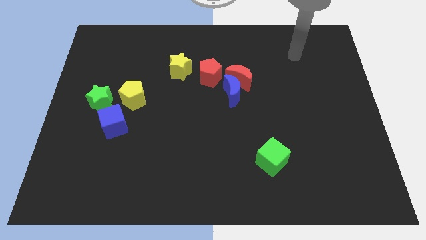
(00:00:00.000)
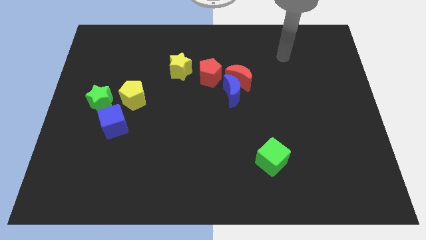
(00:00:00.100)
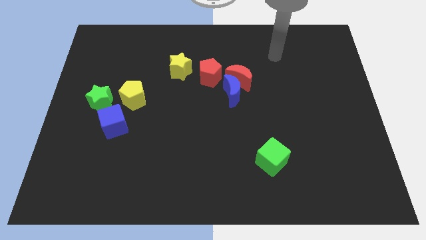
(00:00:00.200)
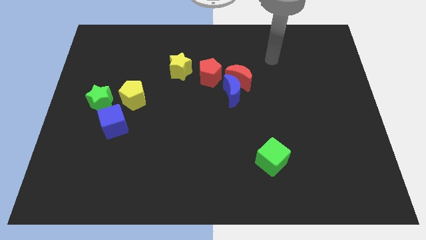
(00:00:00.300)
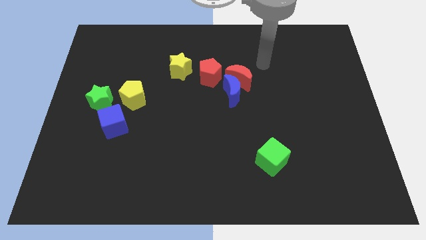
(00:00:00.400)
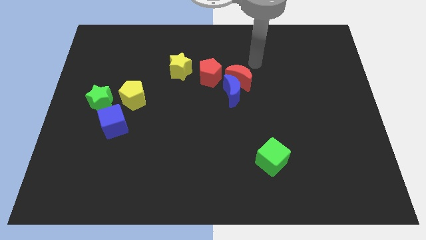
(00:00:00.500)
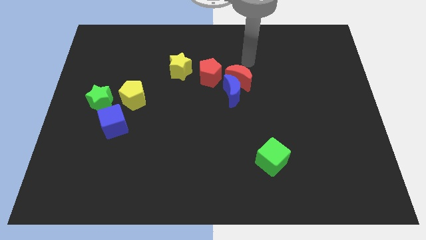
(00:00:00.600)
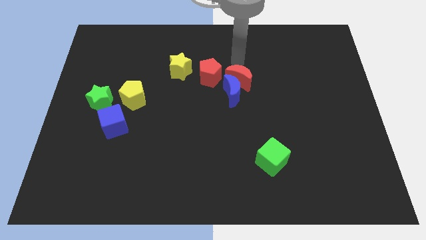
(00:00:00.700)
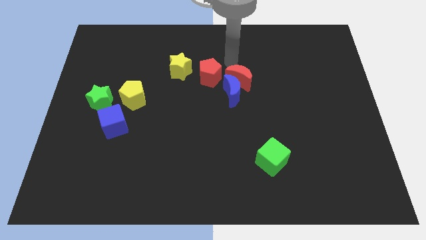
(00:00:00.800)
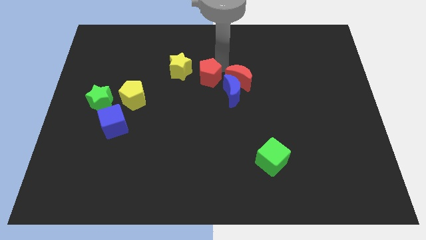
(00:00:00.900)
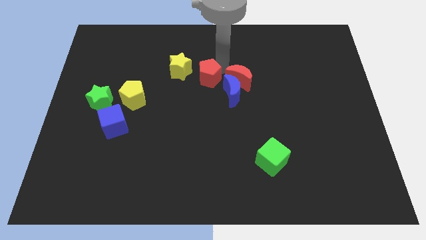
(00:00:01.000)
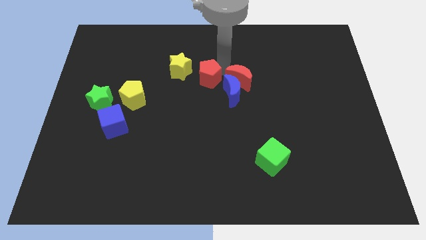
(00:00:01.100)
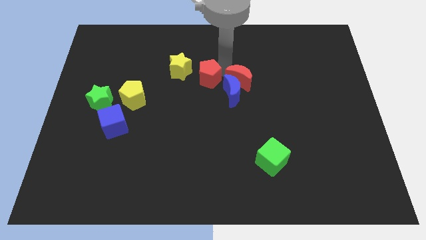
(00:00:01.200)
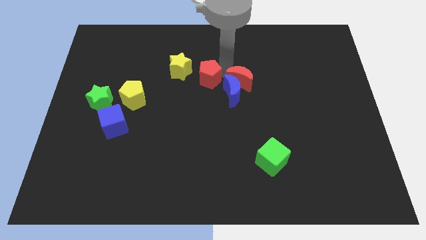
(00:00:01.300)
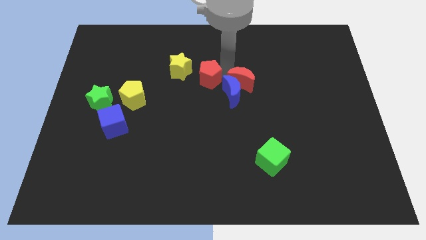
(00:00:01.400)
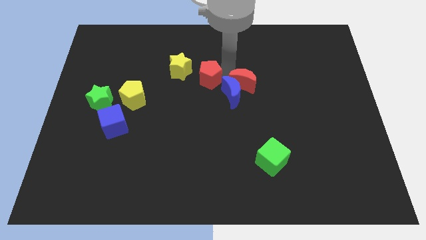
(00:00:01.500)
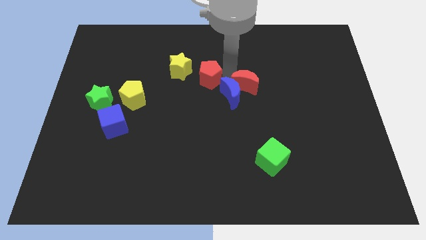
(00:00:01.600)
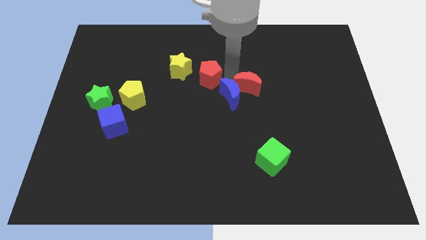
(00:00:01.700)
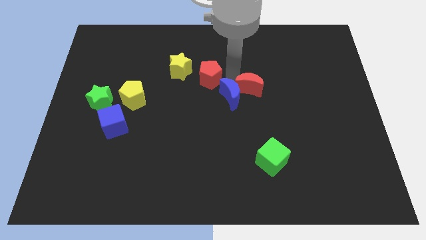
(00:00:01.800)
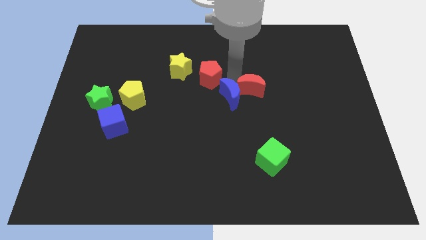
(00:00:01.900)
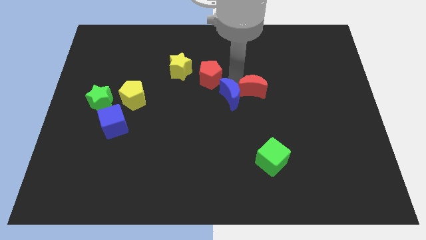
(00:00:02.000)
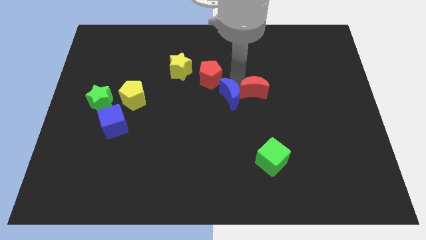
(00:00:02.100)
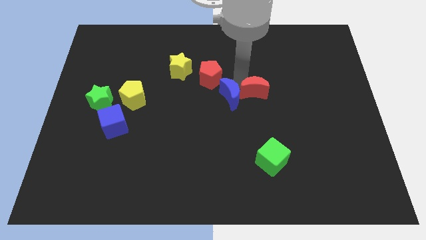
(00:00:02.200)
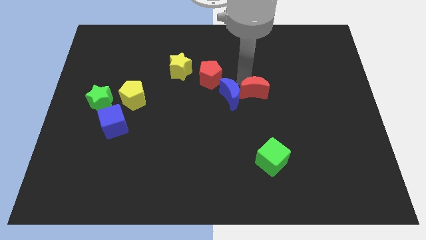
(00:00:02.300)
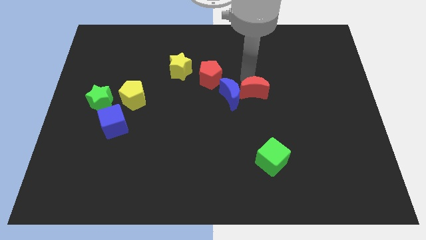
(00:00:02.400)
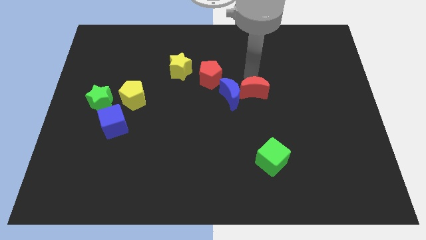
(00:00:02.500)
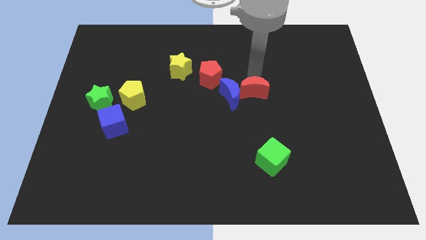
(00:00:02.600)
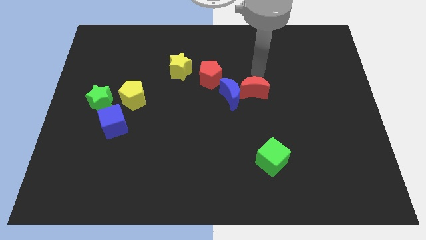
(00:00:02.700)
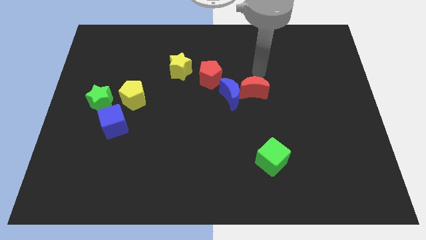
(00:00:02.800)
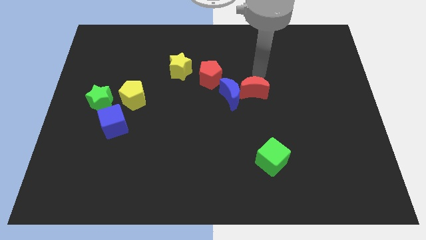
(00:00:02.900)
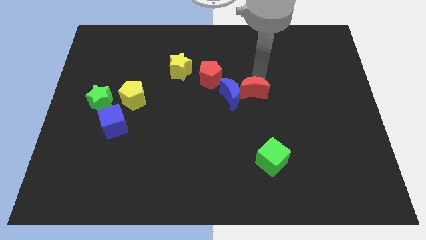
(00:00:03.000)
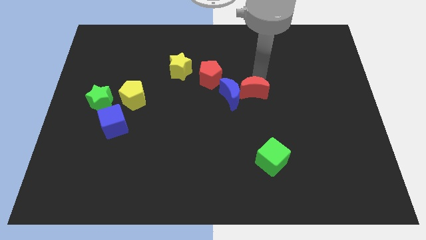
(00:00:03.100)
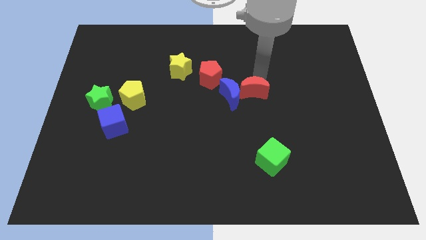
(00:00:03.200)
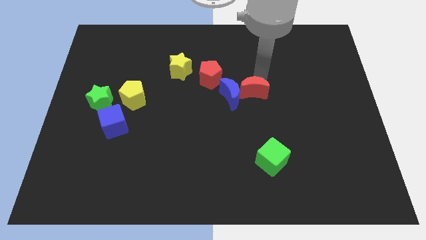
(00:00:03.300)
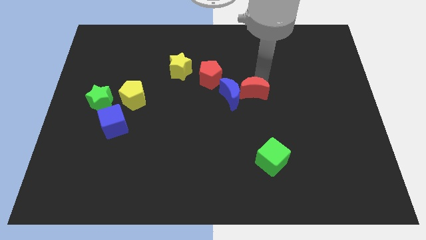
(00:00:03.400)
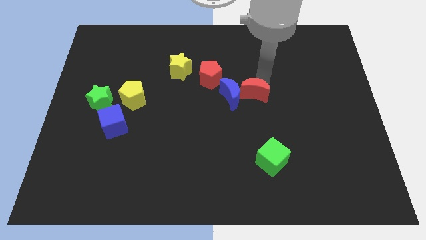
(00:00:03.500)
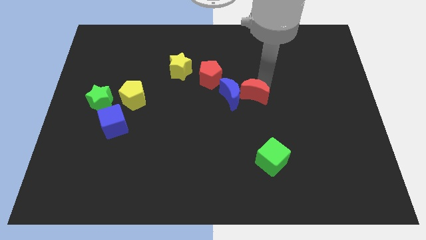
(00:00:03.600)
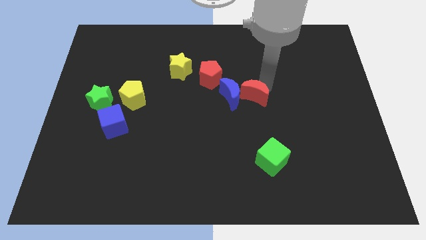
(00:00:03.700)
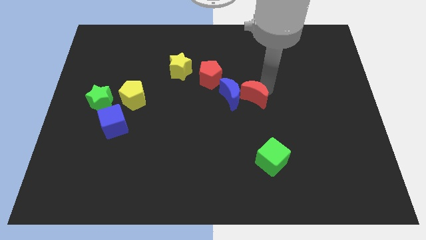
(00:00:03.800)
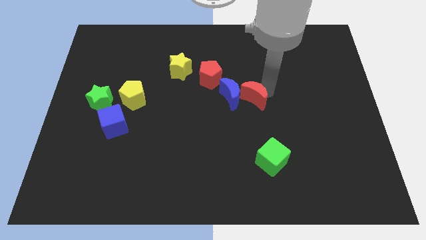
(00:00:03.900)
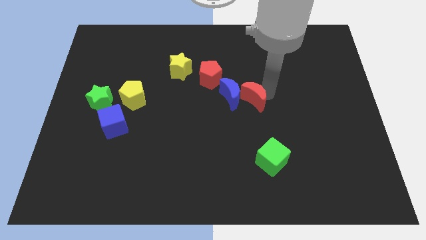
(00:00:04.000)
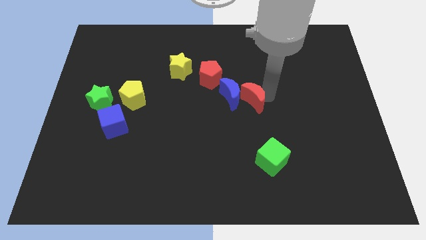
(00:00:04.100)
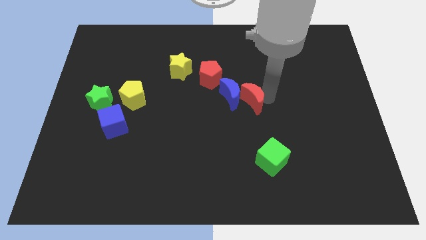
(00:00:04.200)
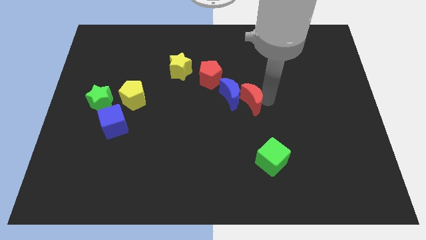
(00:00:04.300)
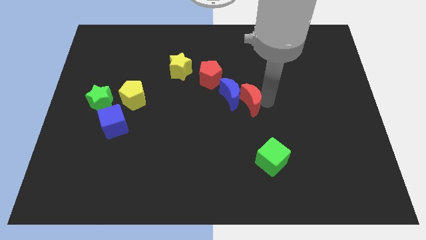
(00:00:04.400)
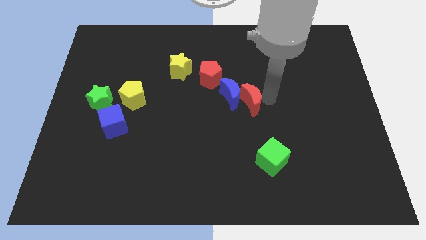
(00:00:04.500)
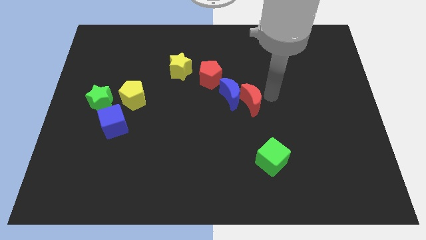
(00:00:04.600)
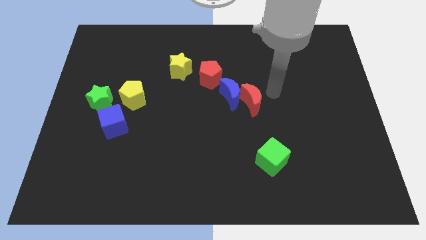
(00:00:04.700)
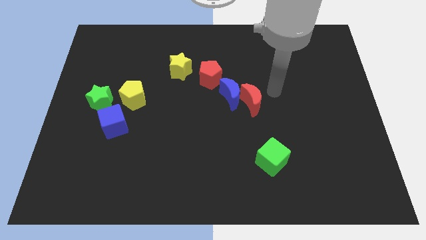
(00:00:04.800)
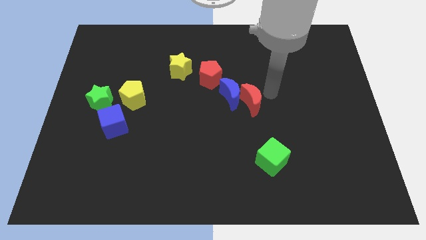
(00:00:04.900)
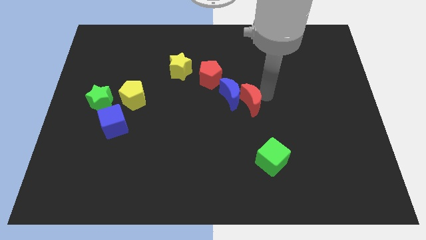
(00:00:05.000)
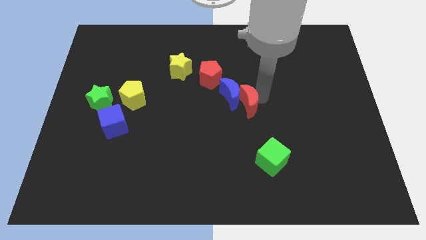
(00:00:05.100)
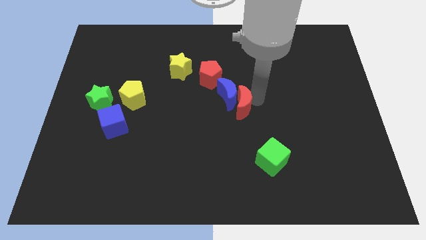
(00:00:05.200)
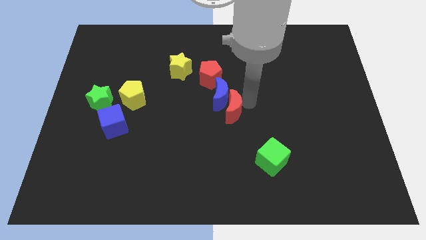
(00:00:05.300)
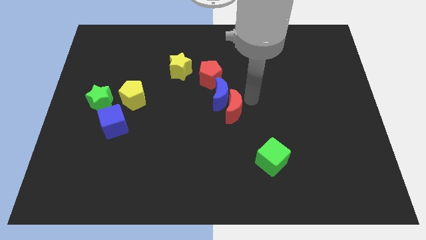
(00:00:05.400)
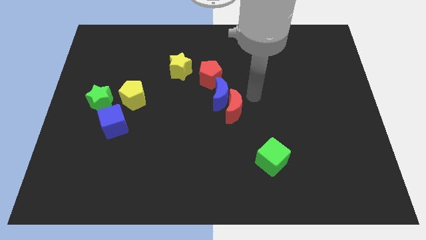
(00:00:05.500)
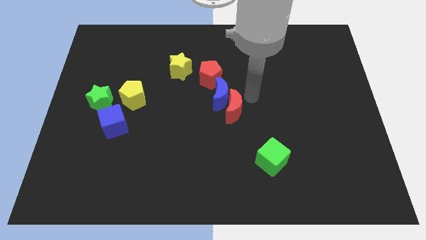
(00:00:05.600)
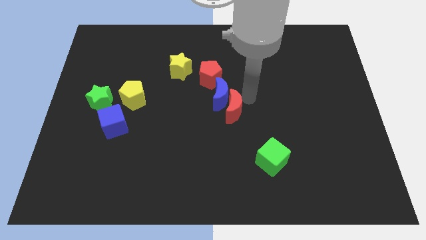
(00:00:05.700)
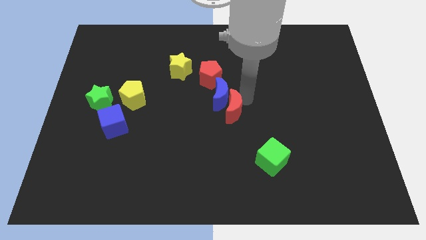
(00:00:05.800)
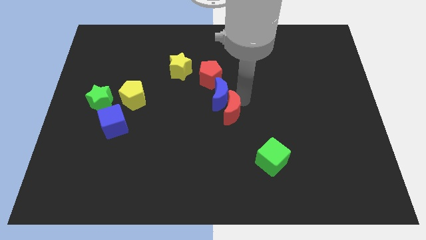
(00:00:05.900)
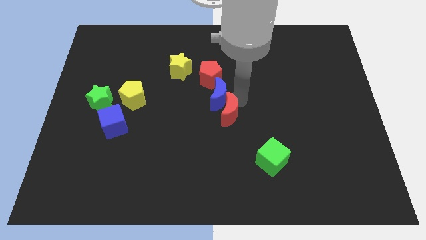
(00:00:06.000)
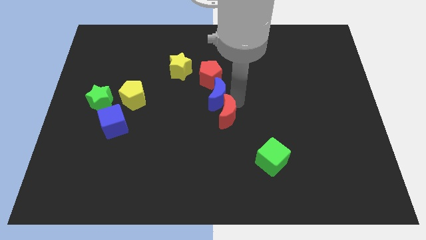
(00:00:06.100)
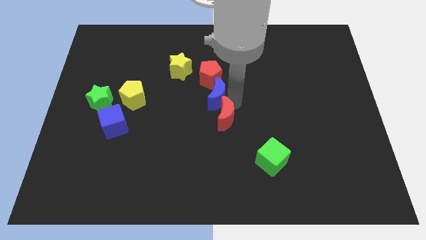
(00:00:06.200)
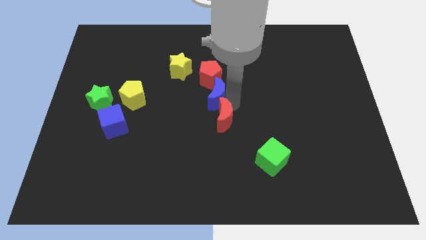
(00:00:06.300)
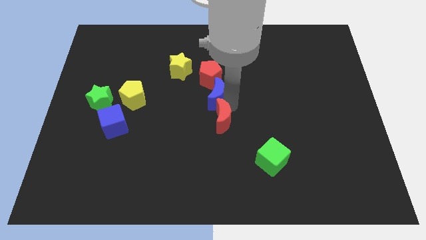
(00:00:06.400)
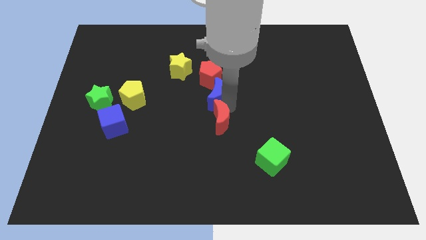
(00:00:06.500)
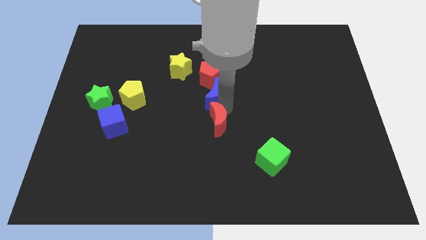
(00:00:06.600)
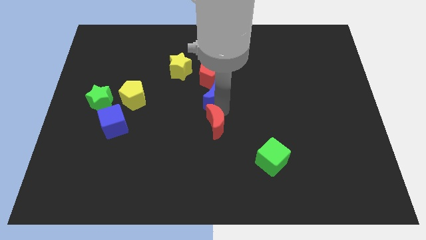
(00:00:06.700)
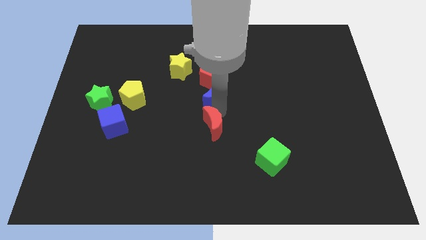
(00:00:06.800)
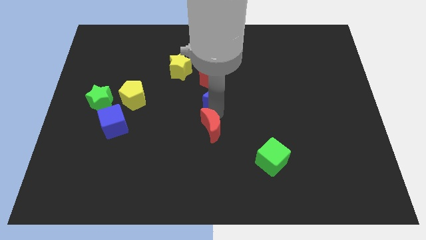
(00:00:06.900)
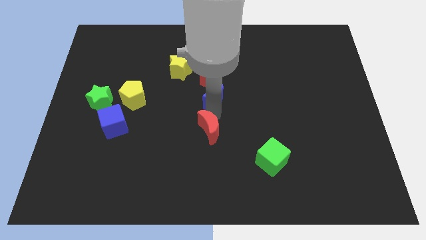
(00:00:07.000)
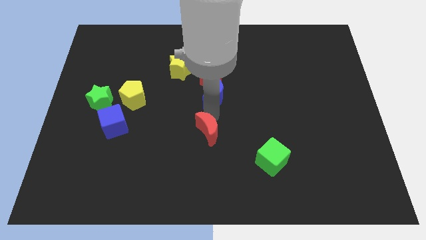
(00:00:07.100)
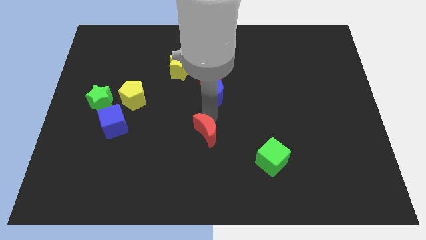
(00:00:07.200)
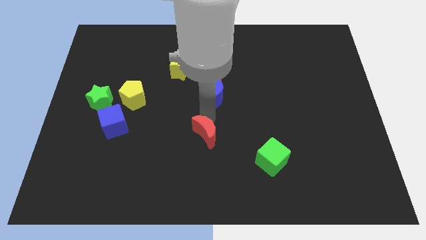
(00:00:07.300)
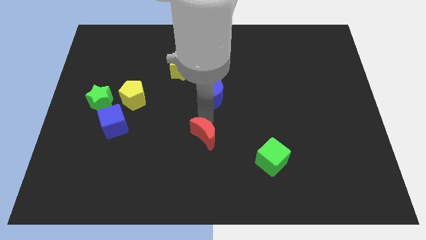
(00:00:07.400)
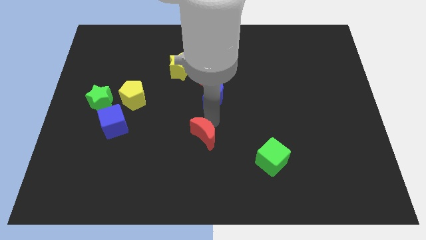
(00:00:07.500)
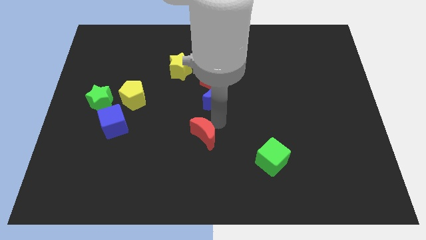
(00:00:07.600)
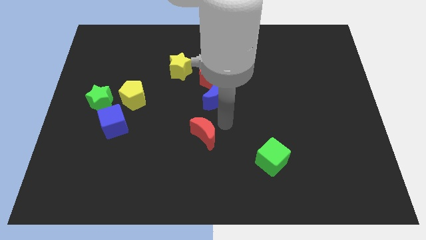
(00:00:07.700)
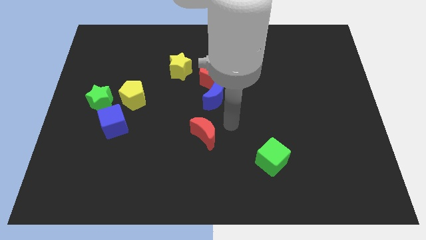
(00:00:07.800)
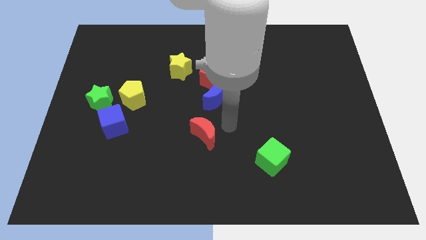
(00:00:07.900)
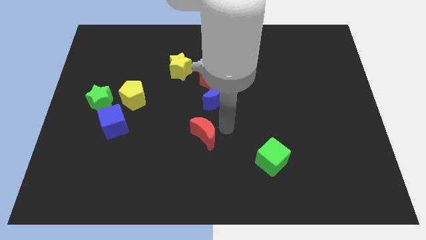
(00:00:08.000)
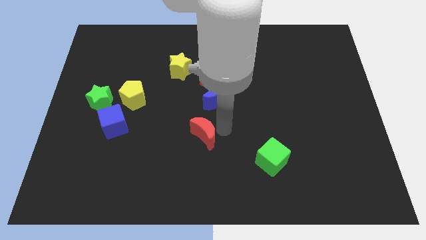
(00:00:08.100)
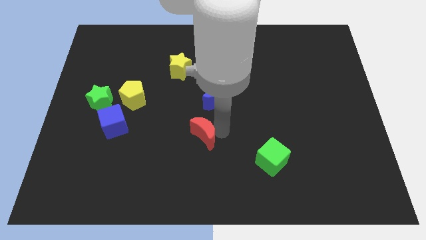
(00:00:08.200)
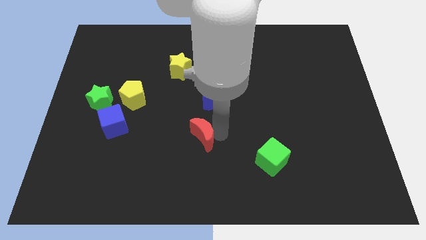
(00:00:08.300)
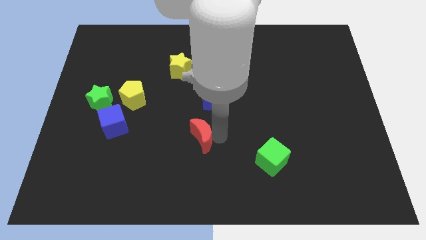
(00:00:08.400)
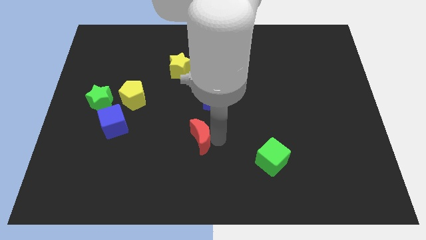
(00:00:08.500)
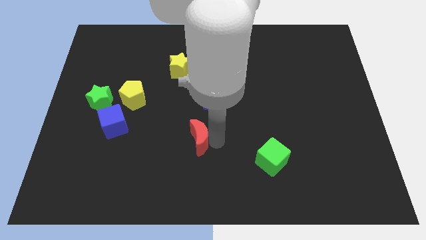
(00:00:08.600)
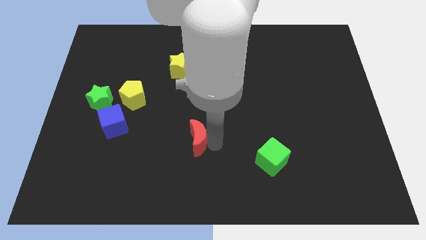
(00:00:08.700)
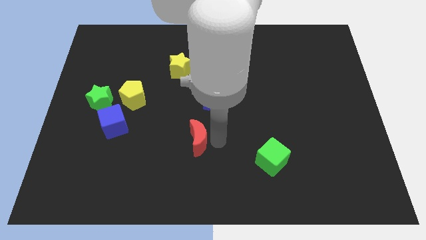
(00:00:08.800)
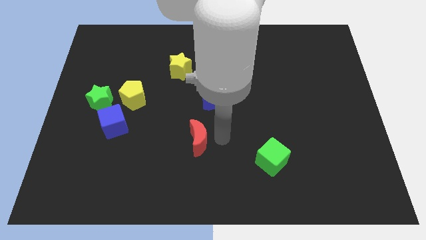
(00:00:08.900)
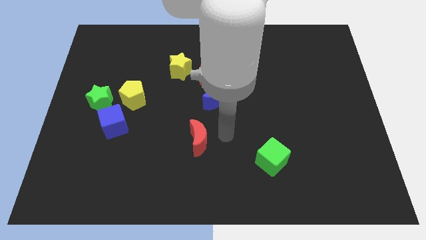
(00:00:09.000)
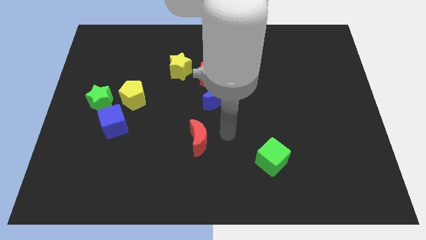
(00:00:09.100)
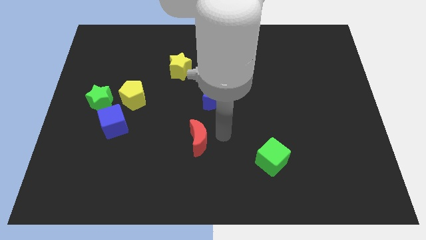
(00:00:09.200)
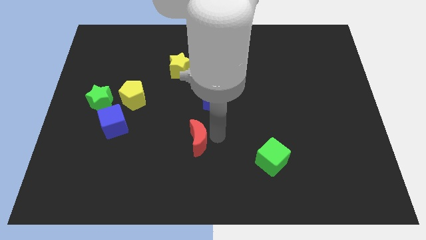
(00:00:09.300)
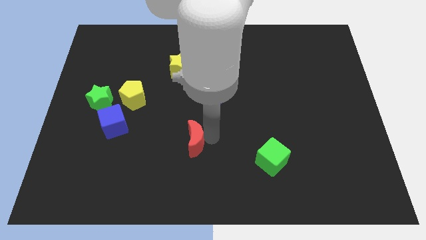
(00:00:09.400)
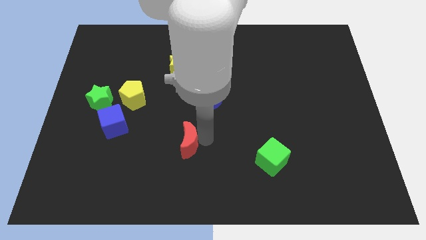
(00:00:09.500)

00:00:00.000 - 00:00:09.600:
push the red moon downwards and left
